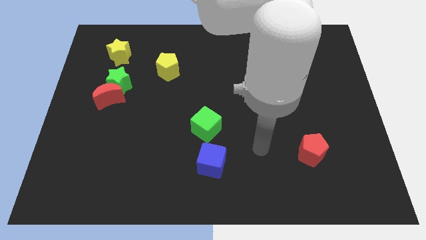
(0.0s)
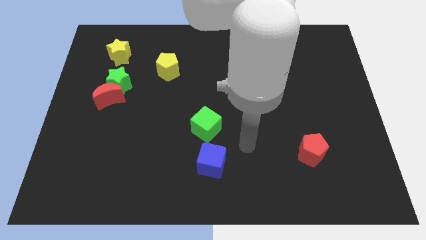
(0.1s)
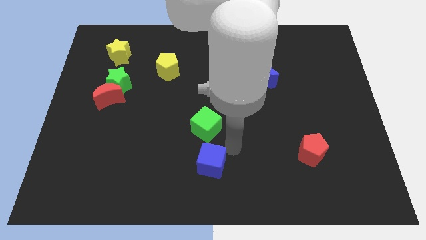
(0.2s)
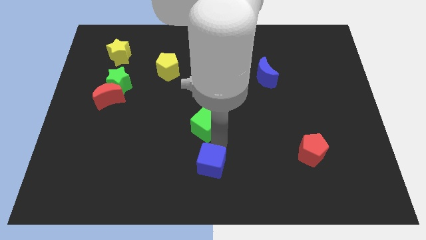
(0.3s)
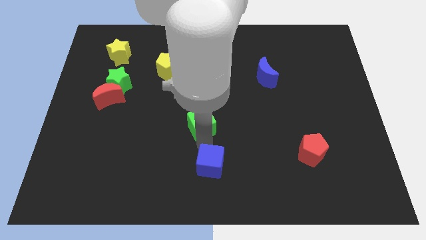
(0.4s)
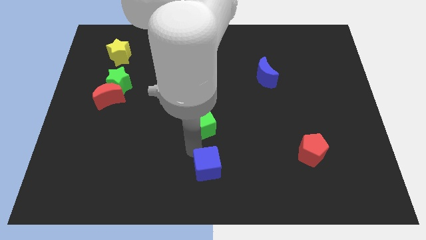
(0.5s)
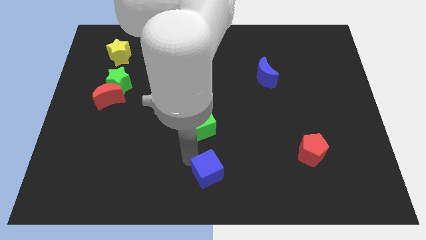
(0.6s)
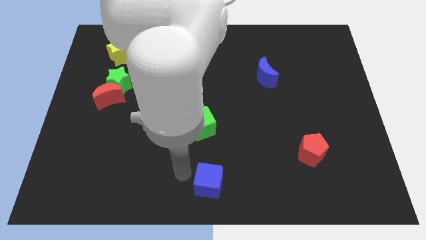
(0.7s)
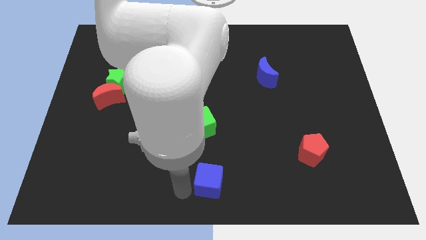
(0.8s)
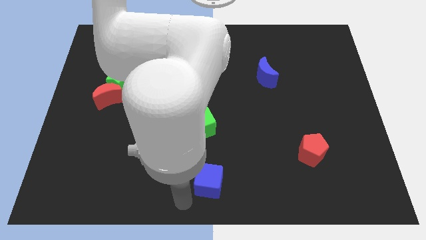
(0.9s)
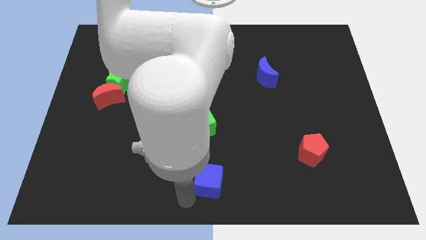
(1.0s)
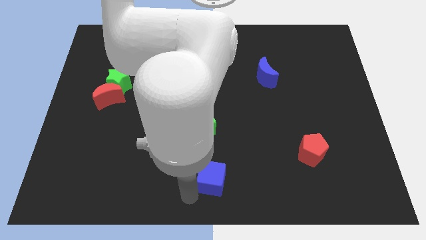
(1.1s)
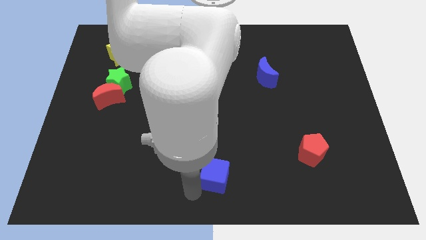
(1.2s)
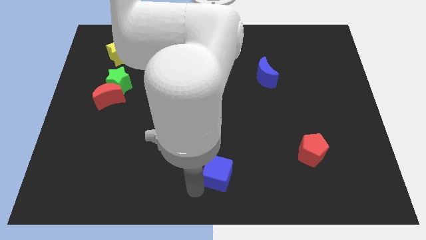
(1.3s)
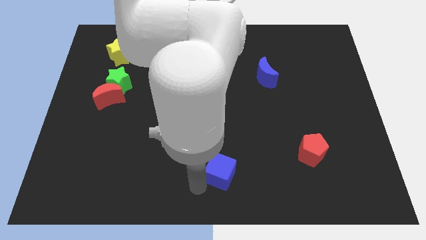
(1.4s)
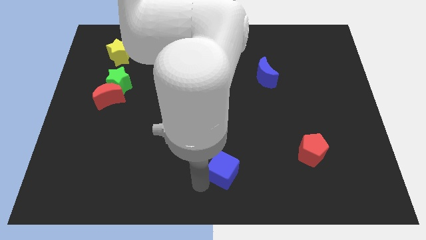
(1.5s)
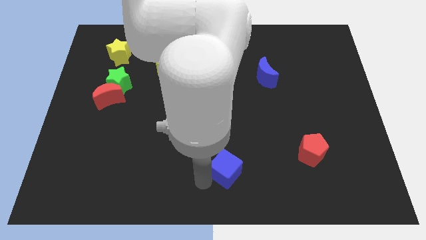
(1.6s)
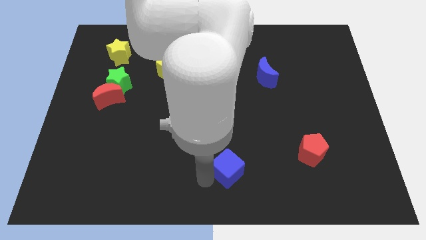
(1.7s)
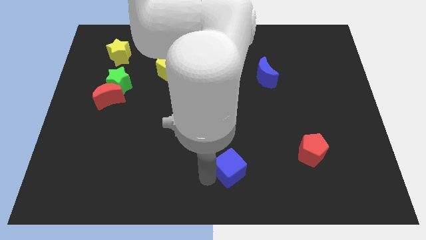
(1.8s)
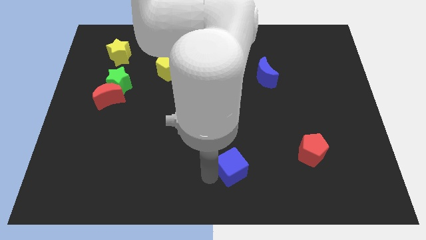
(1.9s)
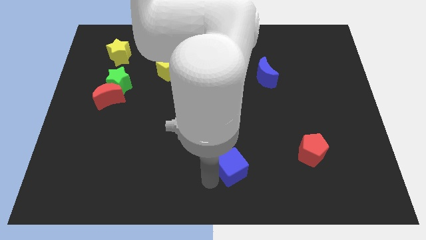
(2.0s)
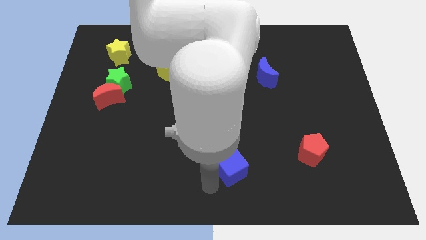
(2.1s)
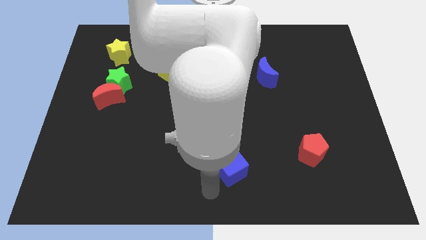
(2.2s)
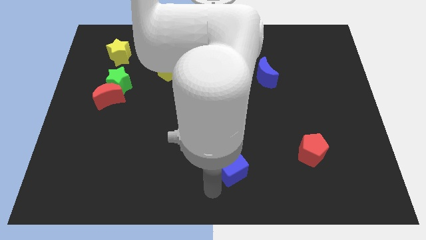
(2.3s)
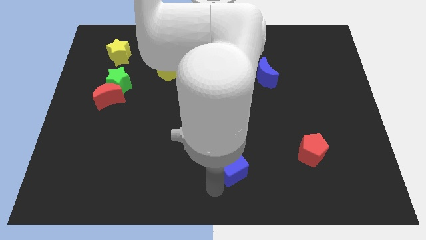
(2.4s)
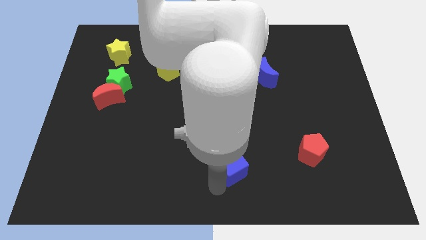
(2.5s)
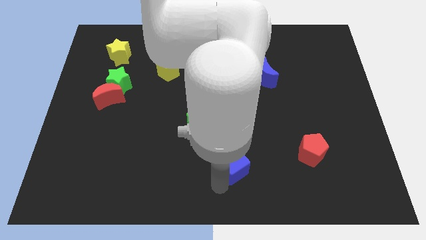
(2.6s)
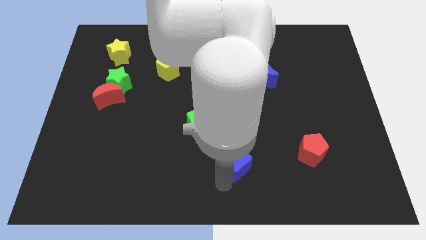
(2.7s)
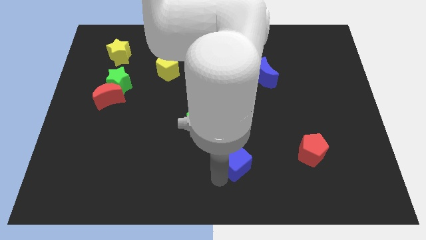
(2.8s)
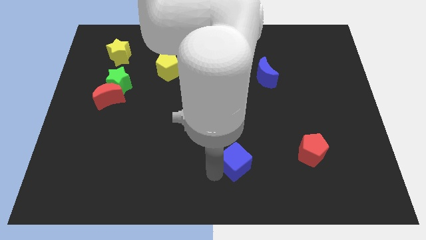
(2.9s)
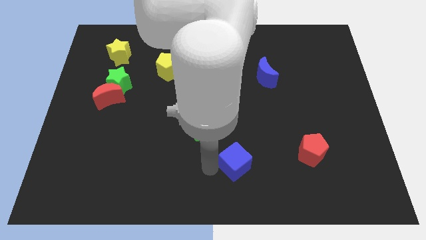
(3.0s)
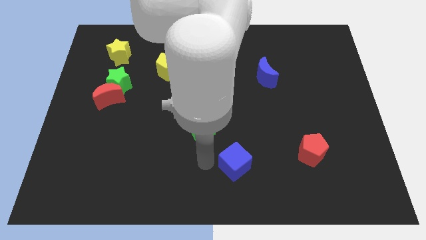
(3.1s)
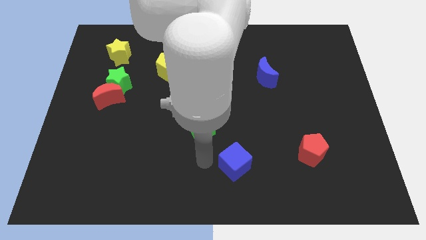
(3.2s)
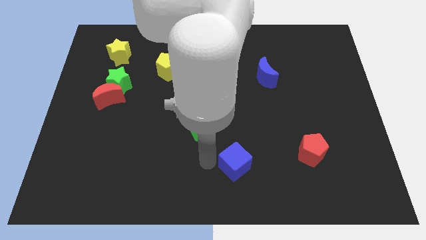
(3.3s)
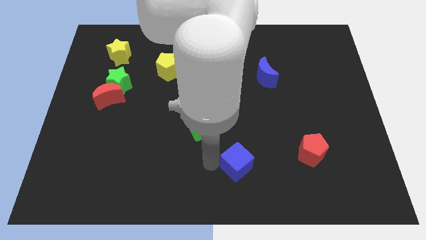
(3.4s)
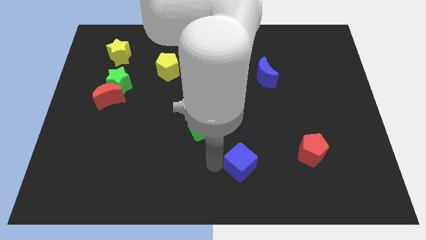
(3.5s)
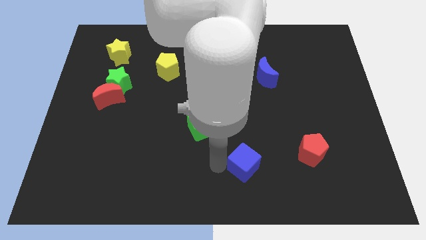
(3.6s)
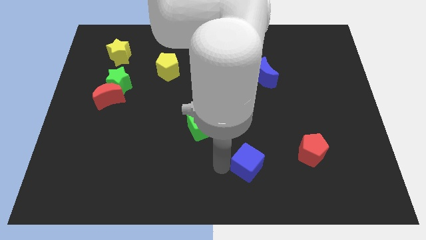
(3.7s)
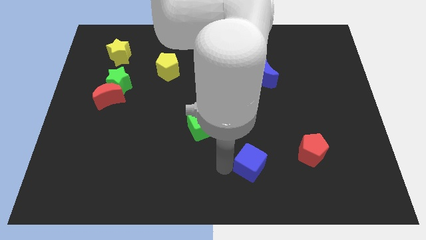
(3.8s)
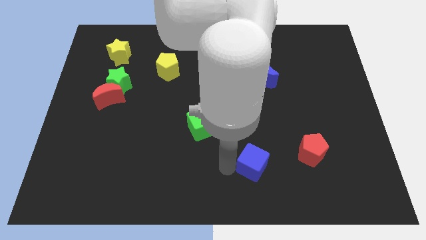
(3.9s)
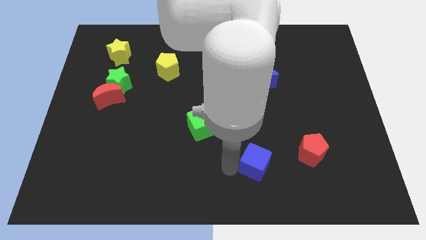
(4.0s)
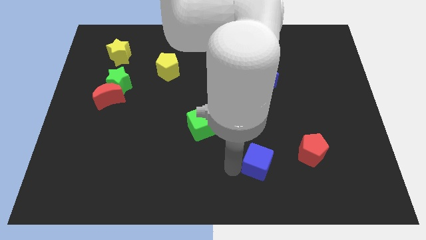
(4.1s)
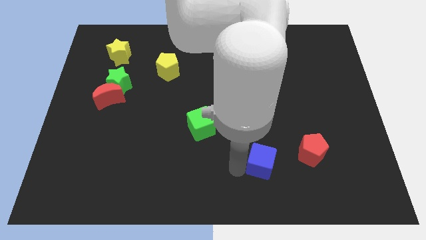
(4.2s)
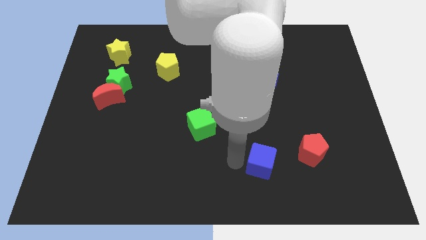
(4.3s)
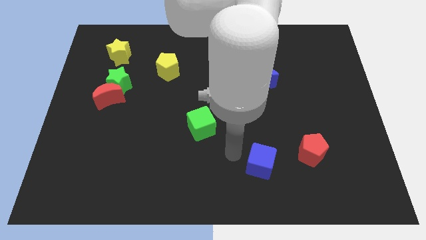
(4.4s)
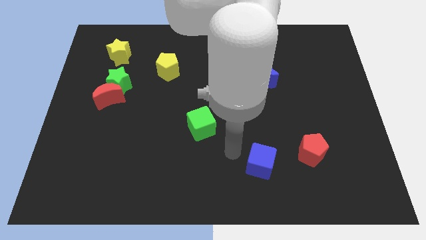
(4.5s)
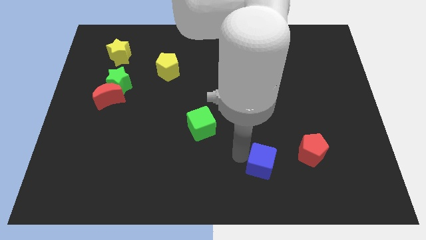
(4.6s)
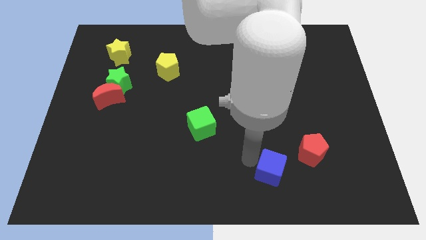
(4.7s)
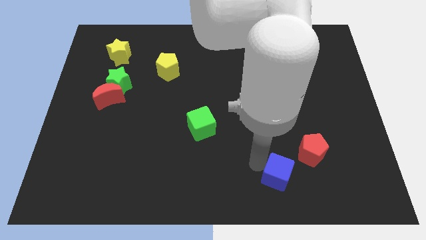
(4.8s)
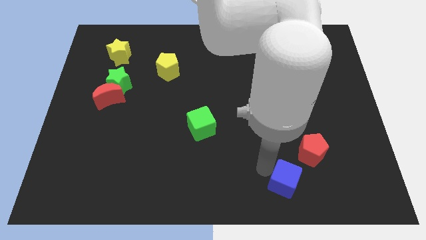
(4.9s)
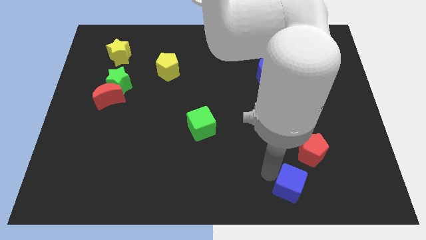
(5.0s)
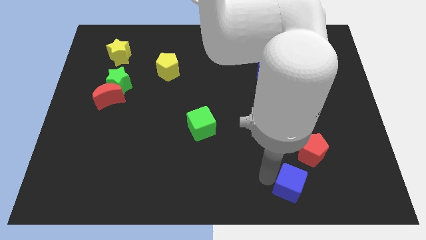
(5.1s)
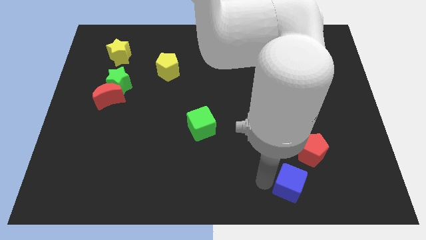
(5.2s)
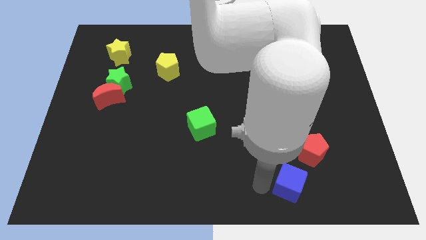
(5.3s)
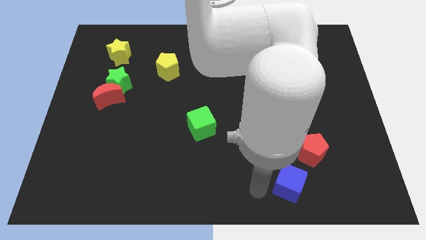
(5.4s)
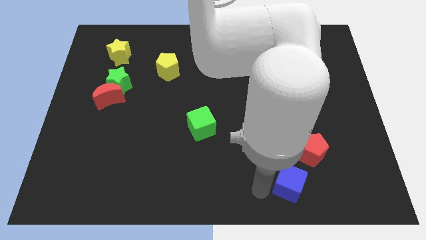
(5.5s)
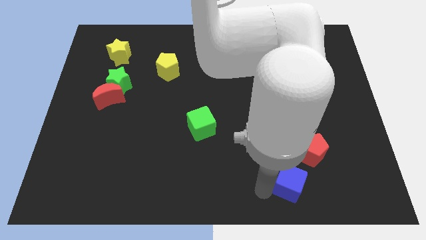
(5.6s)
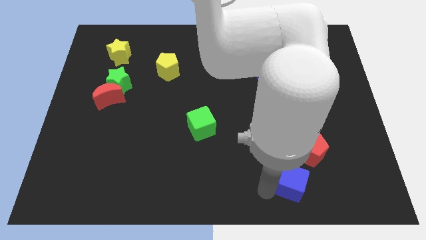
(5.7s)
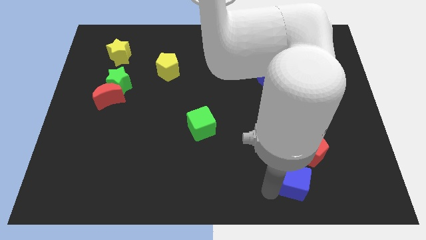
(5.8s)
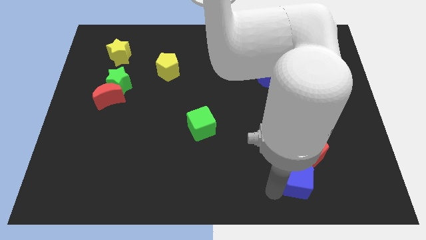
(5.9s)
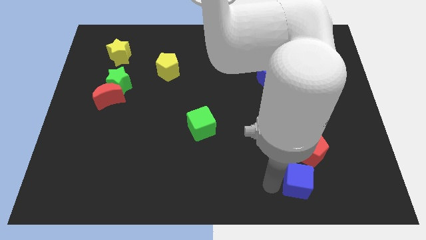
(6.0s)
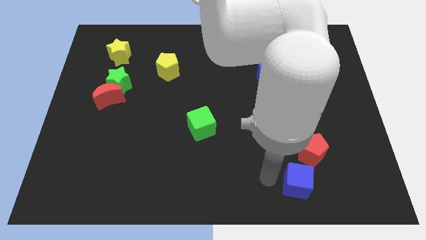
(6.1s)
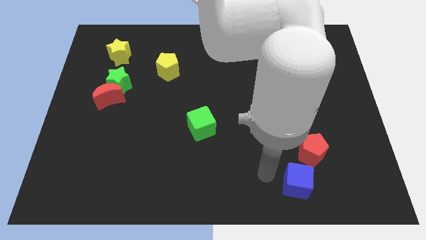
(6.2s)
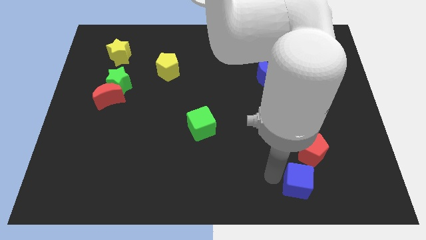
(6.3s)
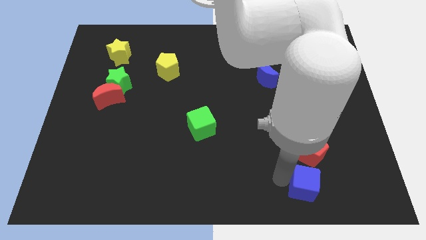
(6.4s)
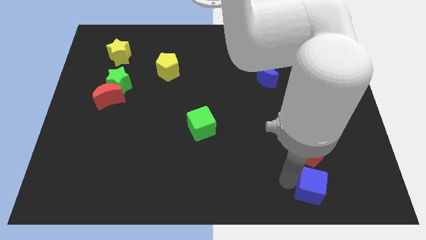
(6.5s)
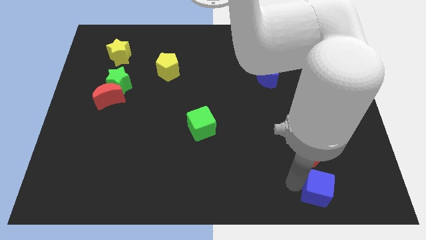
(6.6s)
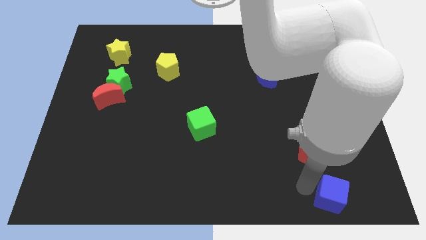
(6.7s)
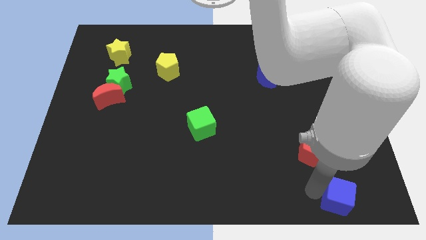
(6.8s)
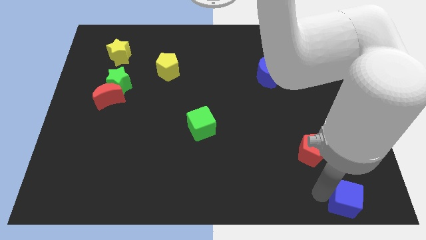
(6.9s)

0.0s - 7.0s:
push the blue cube to the lower right corner
